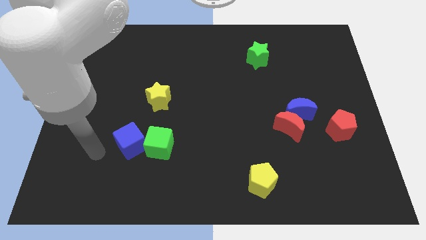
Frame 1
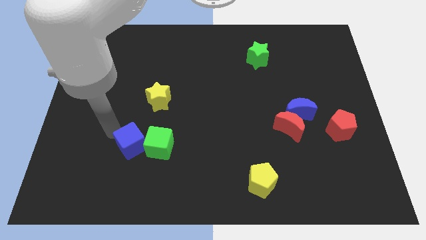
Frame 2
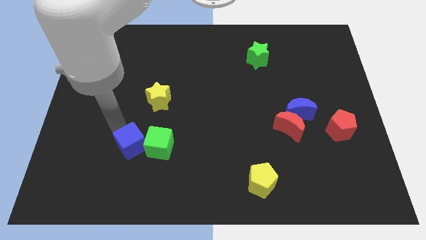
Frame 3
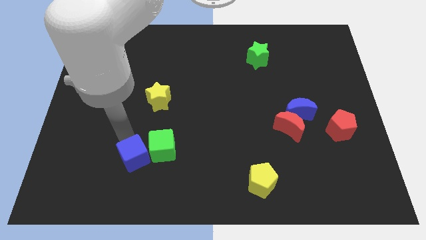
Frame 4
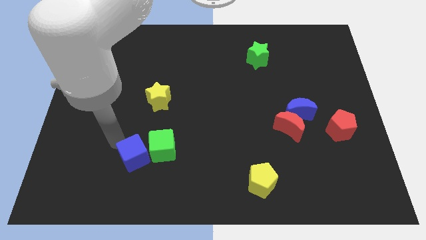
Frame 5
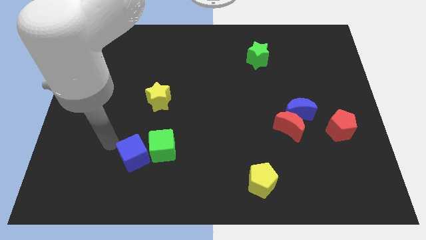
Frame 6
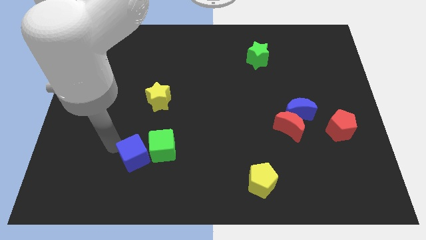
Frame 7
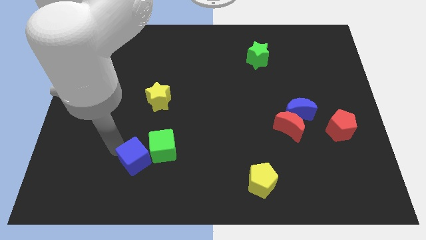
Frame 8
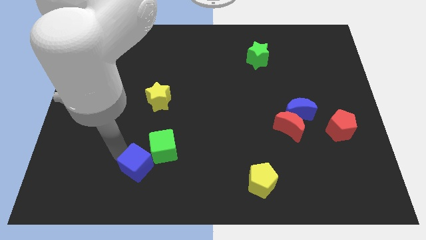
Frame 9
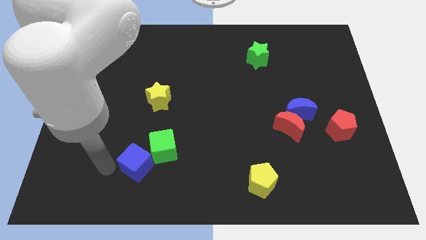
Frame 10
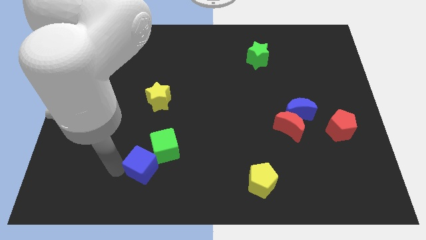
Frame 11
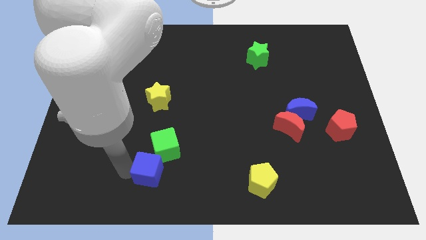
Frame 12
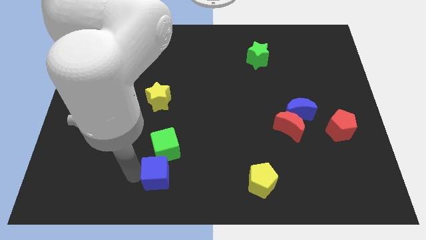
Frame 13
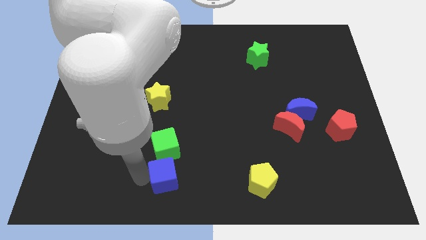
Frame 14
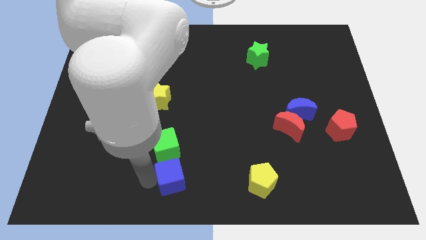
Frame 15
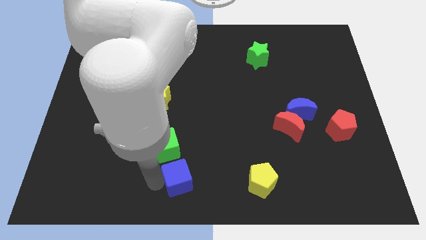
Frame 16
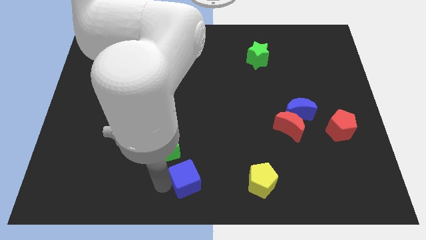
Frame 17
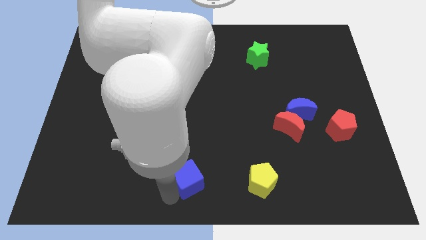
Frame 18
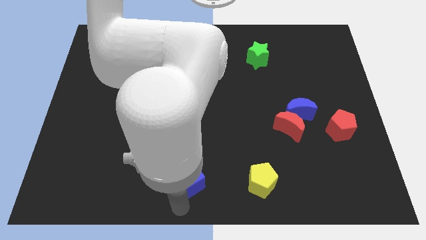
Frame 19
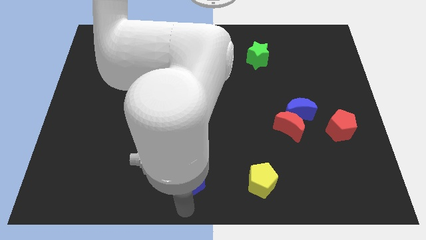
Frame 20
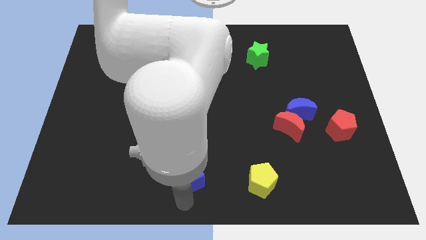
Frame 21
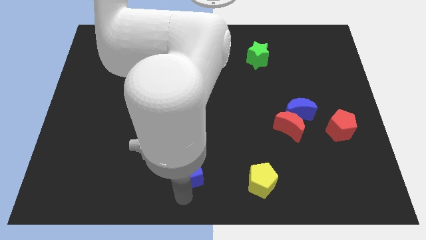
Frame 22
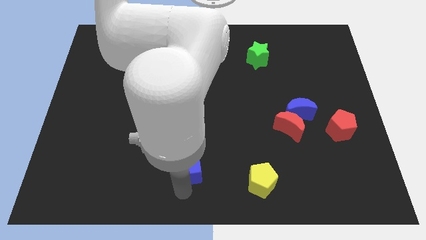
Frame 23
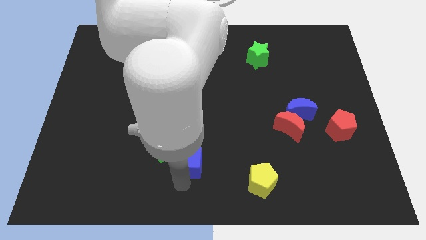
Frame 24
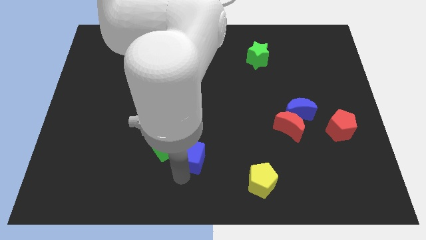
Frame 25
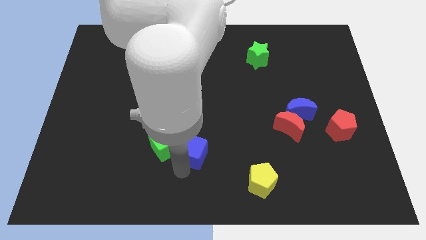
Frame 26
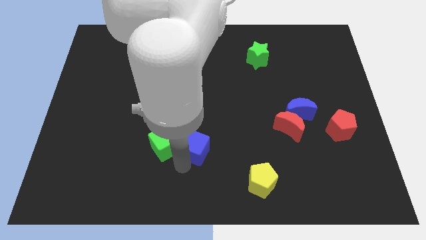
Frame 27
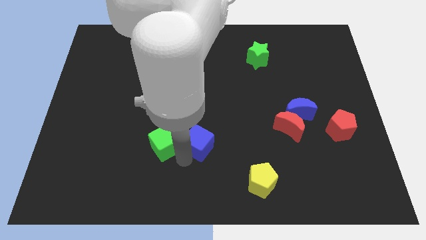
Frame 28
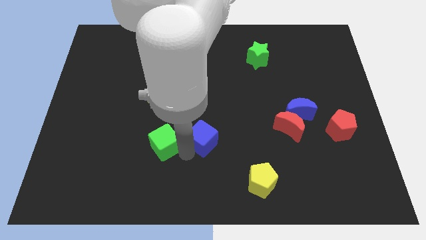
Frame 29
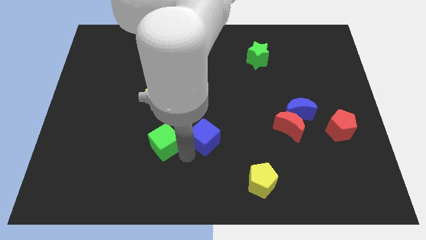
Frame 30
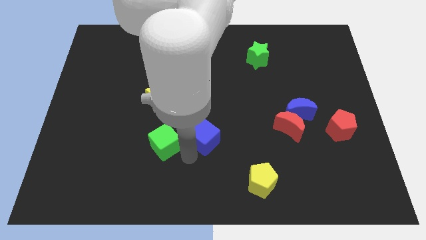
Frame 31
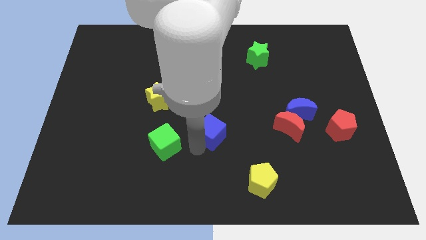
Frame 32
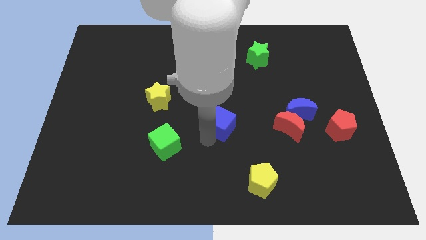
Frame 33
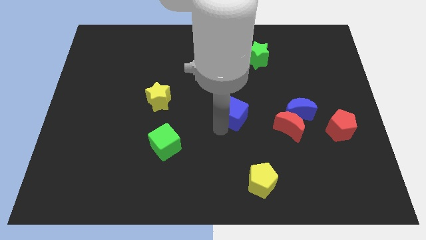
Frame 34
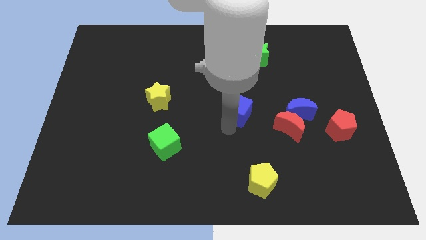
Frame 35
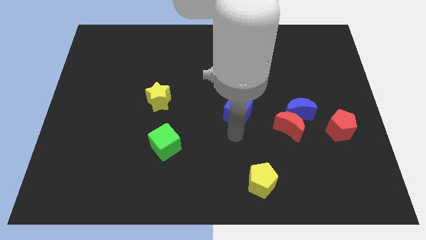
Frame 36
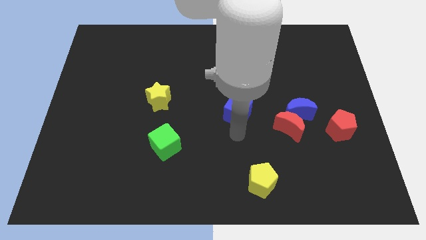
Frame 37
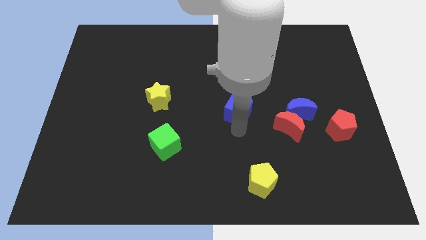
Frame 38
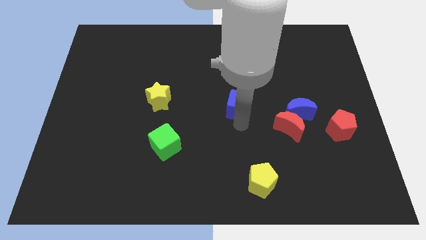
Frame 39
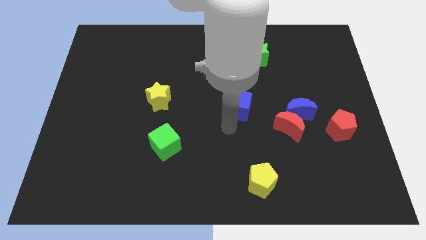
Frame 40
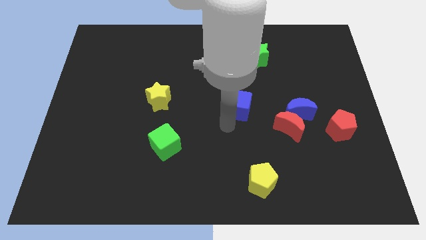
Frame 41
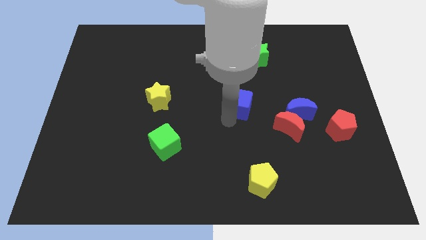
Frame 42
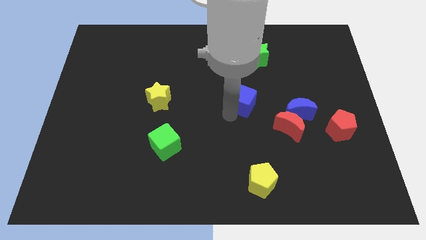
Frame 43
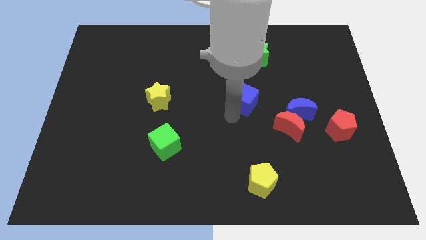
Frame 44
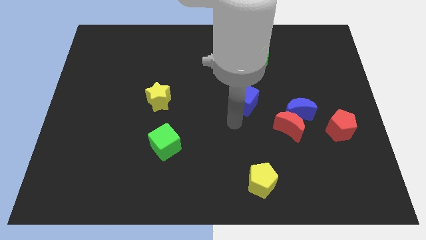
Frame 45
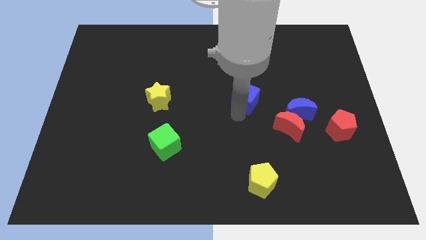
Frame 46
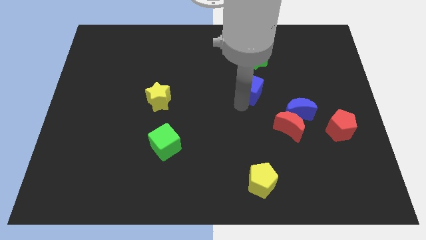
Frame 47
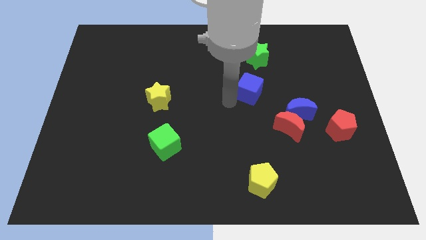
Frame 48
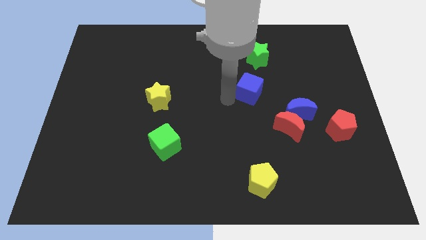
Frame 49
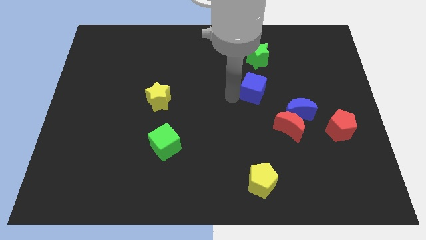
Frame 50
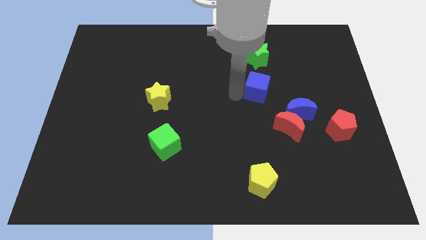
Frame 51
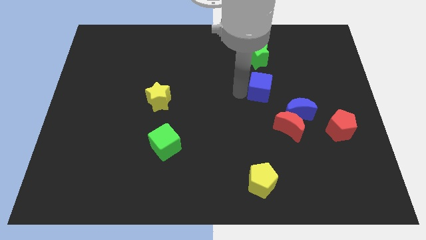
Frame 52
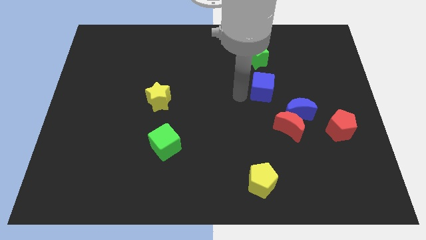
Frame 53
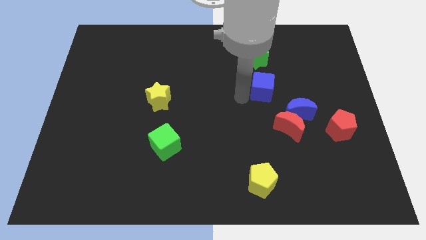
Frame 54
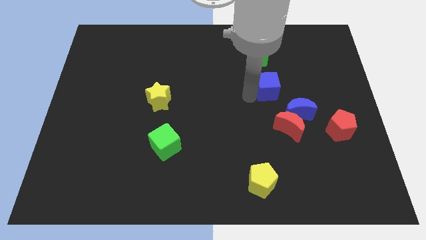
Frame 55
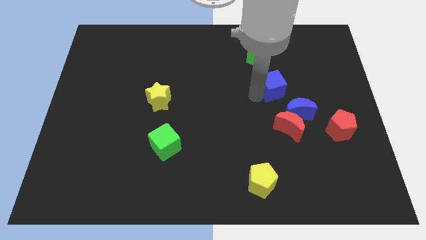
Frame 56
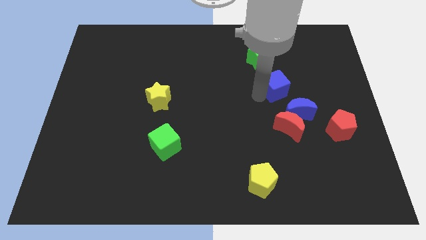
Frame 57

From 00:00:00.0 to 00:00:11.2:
push the blue cube to the top of the blue moon
